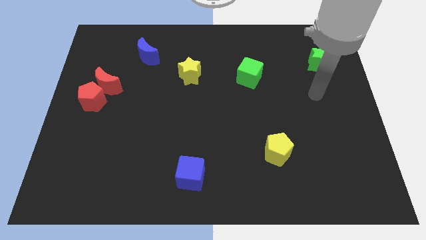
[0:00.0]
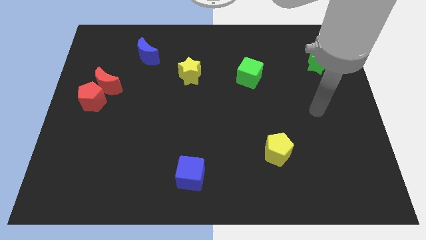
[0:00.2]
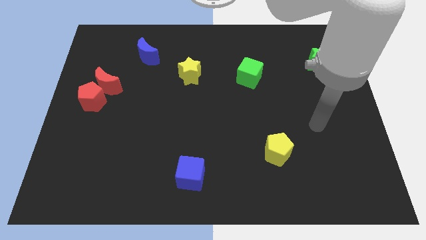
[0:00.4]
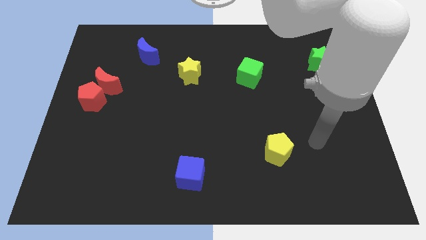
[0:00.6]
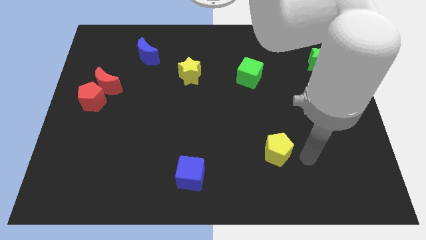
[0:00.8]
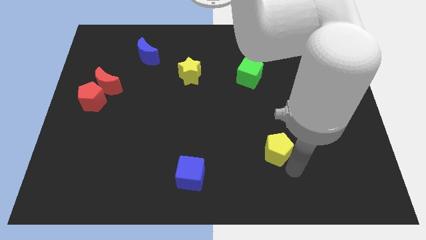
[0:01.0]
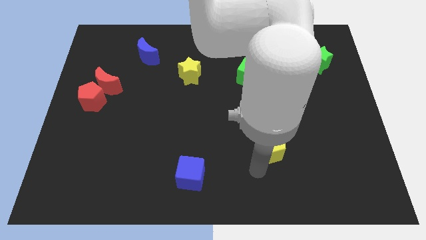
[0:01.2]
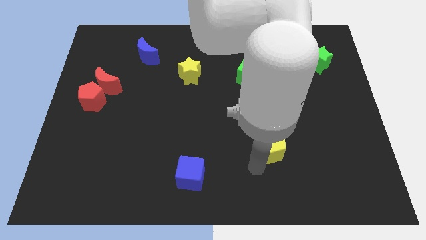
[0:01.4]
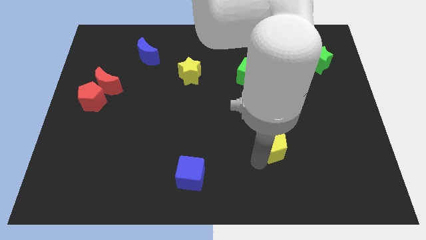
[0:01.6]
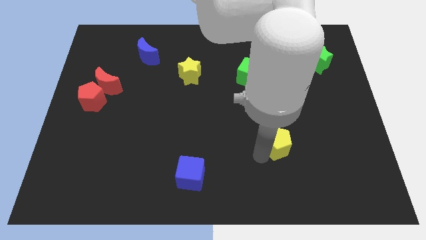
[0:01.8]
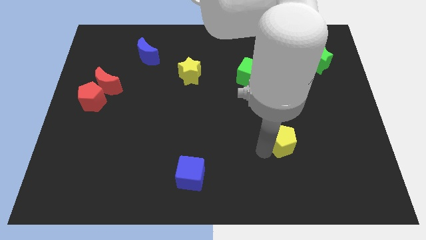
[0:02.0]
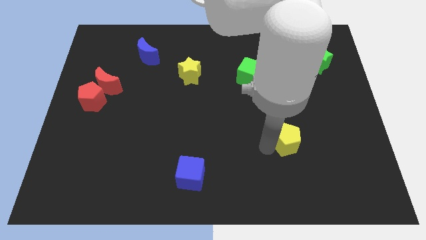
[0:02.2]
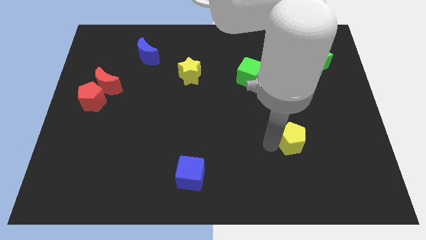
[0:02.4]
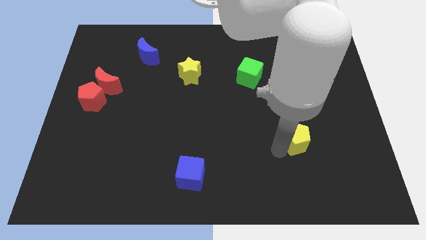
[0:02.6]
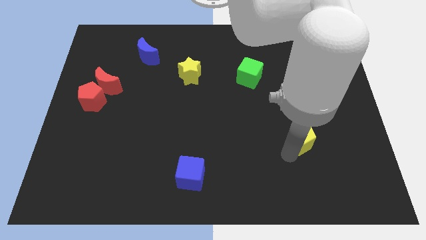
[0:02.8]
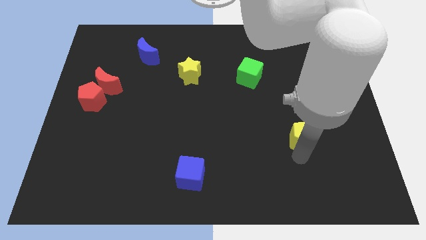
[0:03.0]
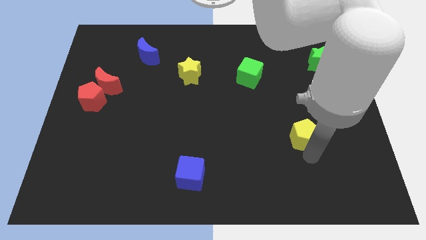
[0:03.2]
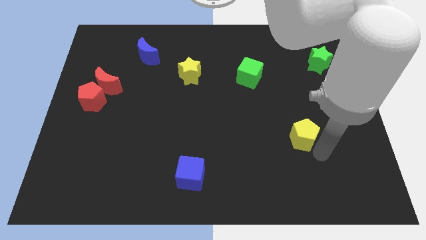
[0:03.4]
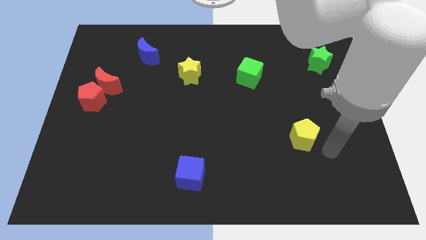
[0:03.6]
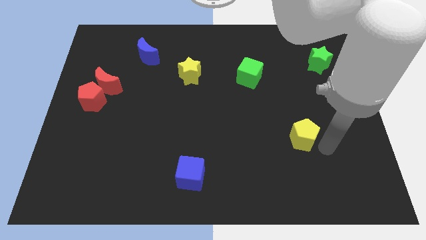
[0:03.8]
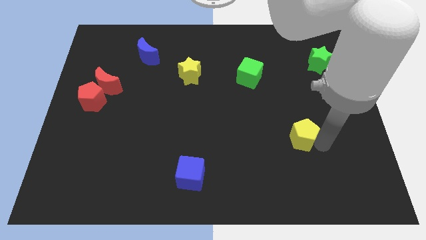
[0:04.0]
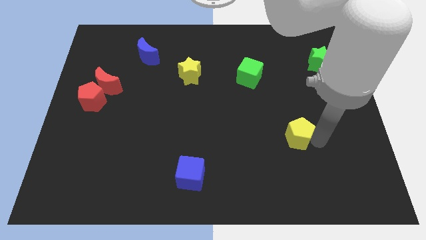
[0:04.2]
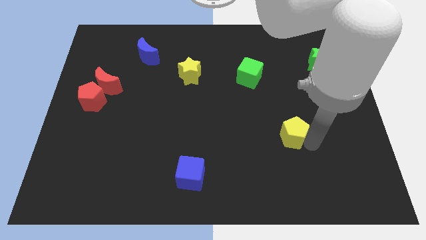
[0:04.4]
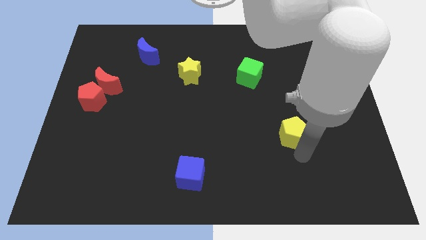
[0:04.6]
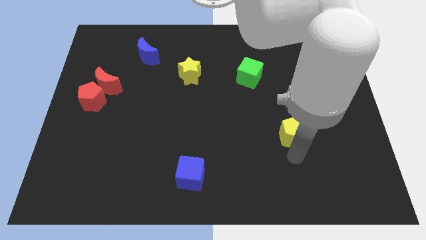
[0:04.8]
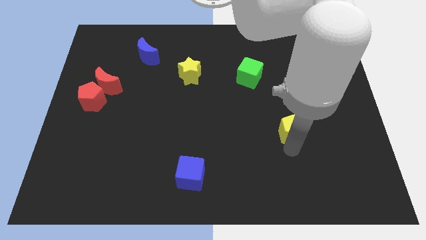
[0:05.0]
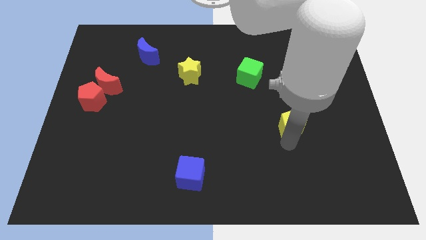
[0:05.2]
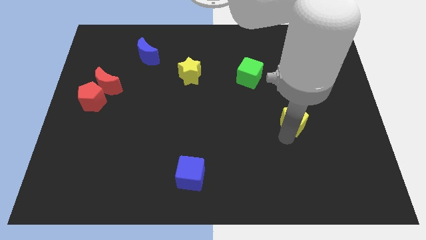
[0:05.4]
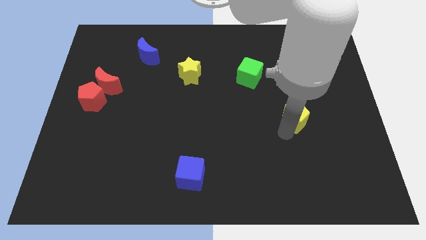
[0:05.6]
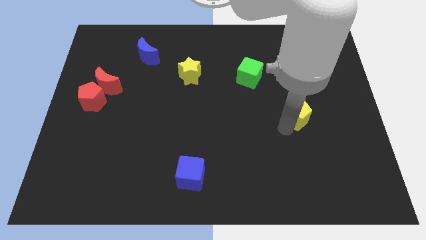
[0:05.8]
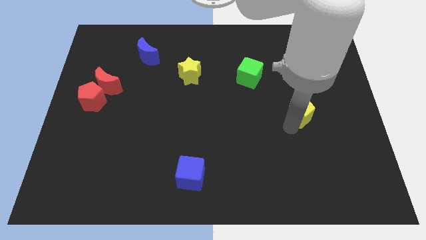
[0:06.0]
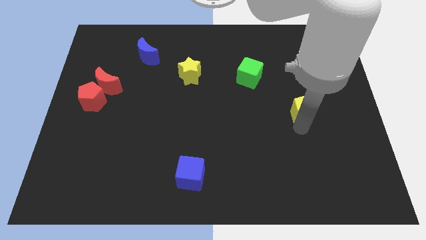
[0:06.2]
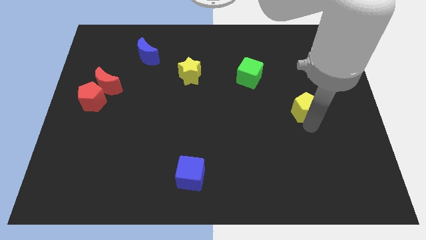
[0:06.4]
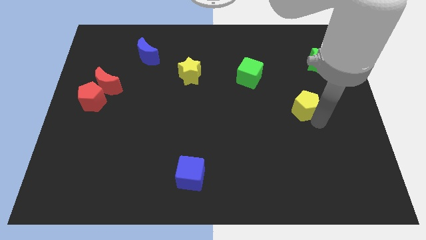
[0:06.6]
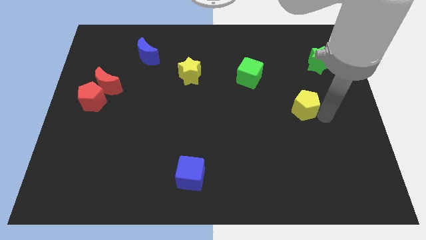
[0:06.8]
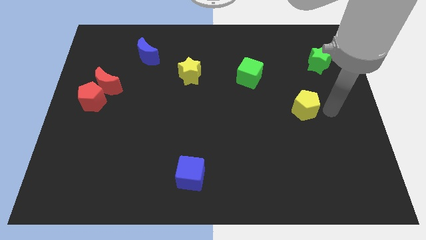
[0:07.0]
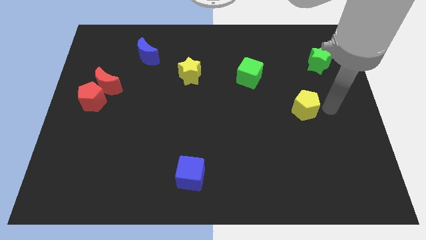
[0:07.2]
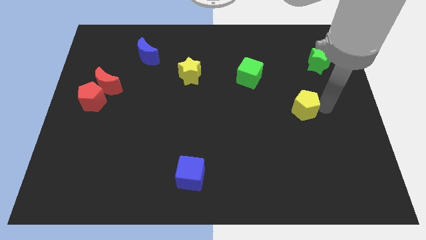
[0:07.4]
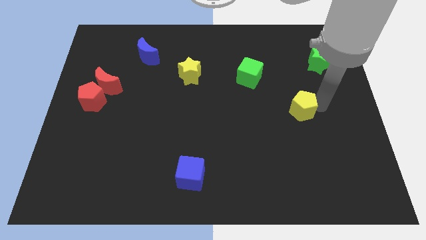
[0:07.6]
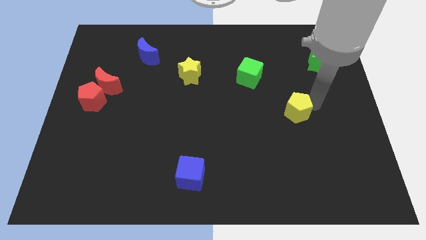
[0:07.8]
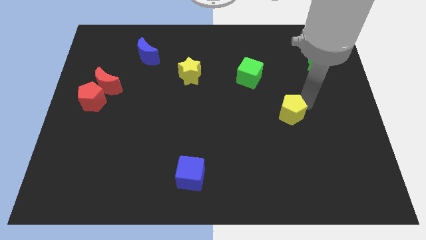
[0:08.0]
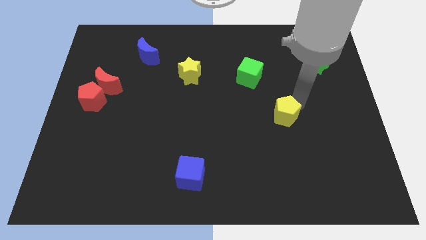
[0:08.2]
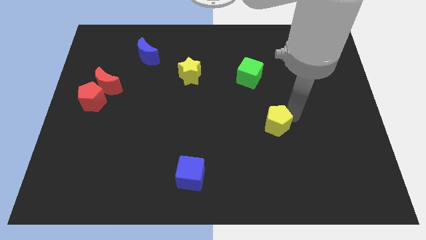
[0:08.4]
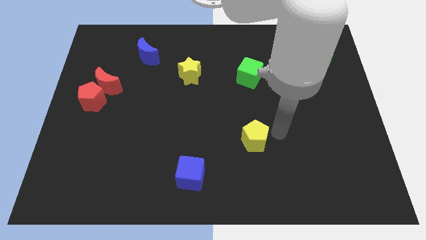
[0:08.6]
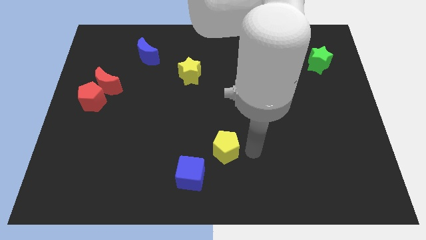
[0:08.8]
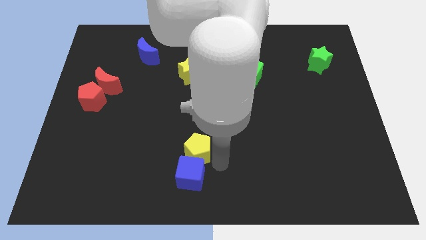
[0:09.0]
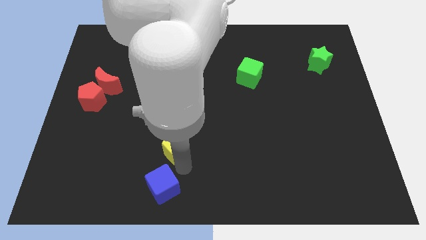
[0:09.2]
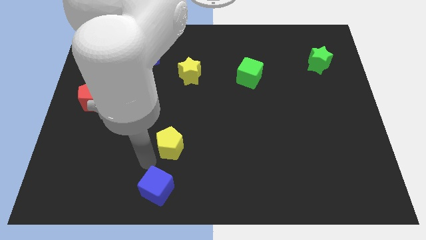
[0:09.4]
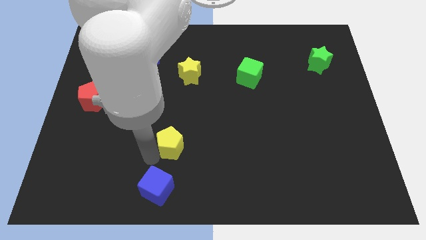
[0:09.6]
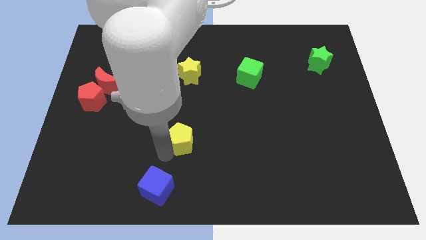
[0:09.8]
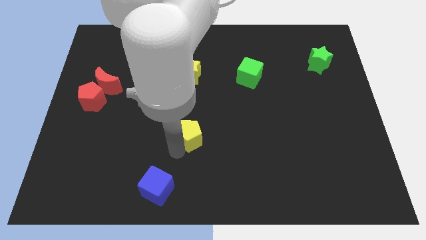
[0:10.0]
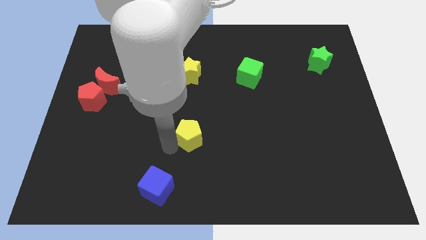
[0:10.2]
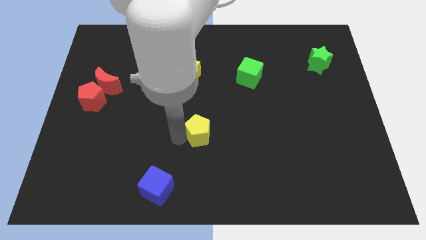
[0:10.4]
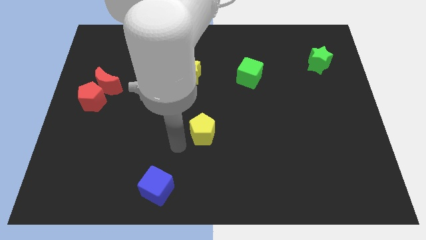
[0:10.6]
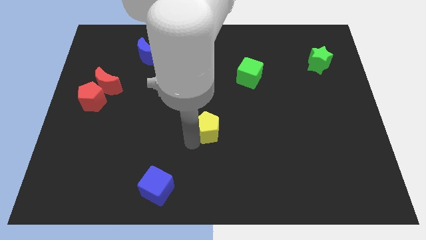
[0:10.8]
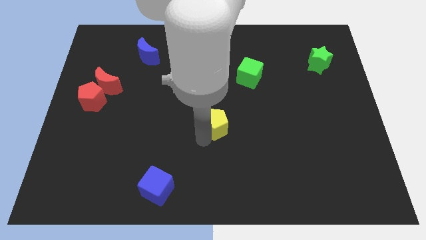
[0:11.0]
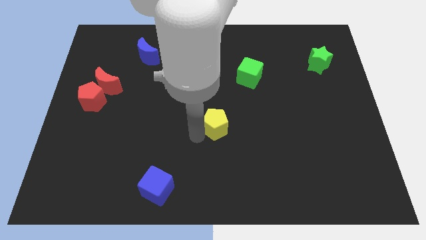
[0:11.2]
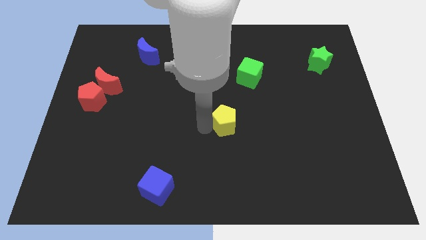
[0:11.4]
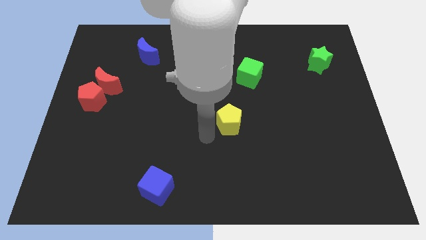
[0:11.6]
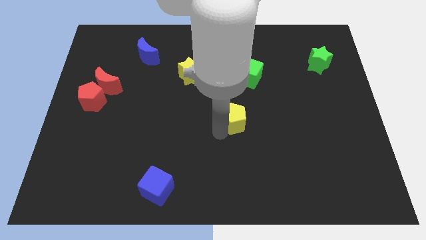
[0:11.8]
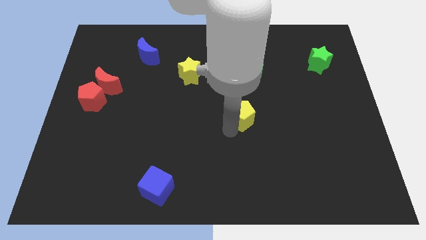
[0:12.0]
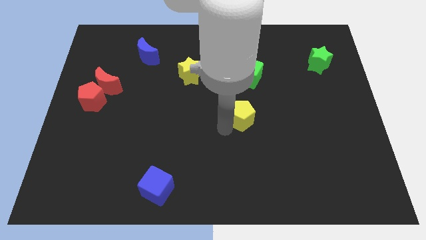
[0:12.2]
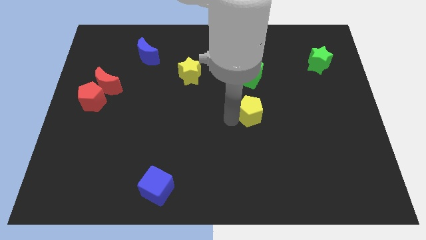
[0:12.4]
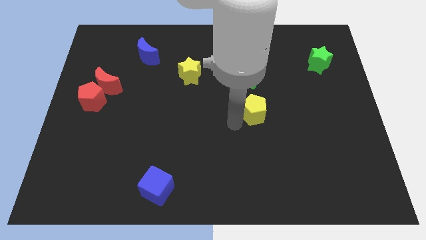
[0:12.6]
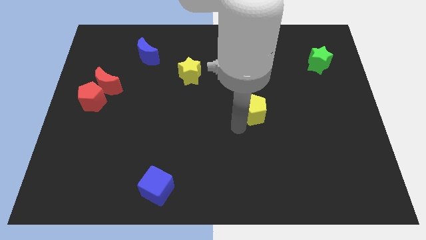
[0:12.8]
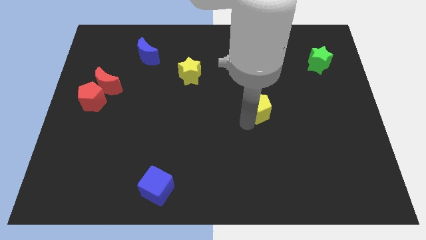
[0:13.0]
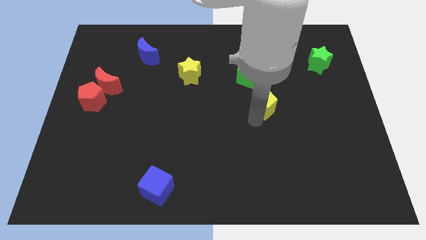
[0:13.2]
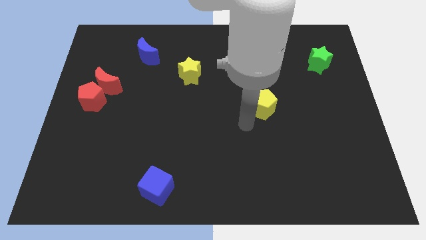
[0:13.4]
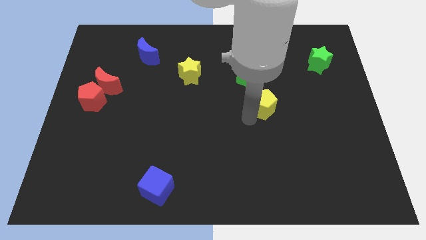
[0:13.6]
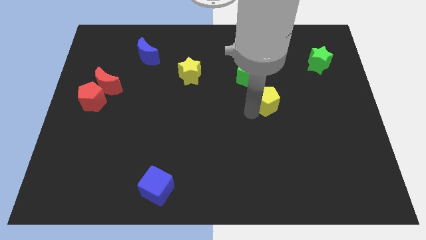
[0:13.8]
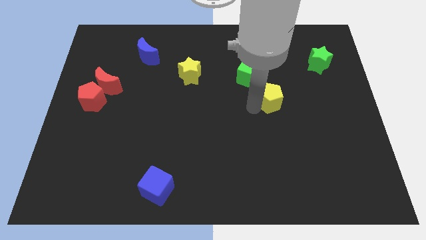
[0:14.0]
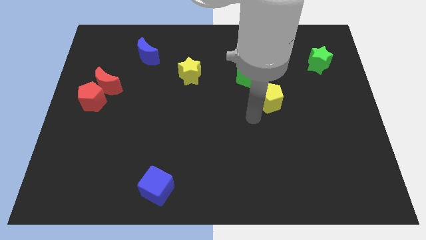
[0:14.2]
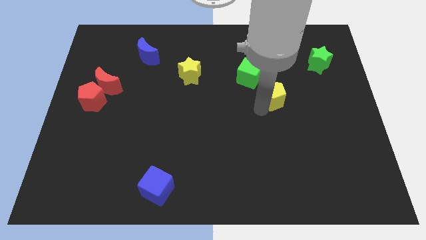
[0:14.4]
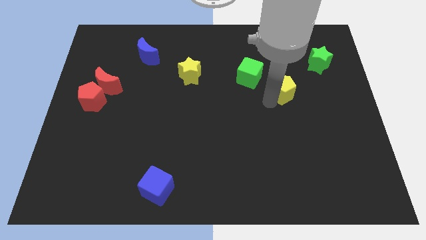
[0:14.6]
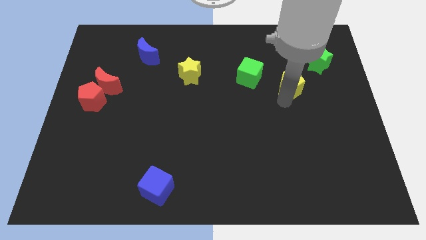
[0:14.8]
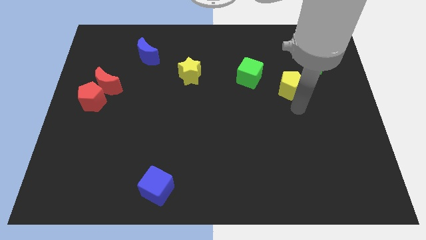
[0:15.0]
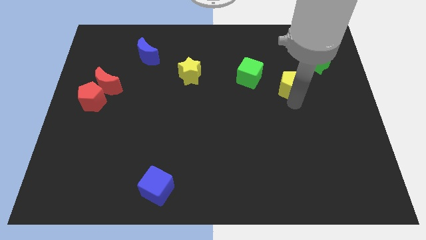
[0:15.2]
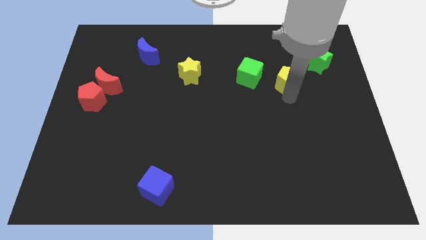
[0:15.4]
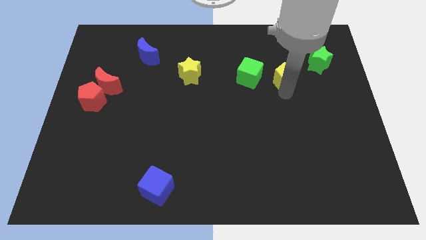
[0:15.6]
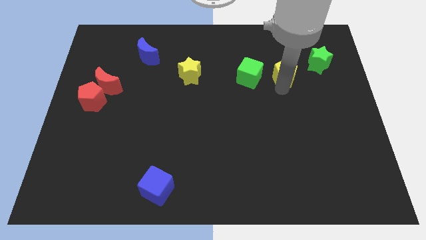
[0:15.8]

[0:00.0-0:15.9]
slide the yellow pentagon to the left of the green star
